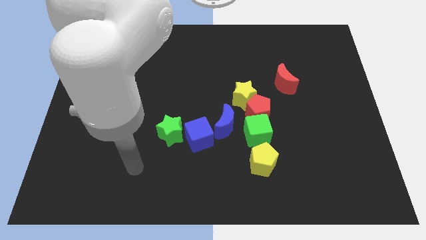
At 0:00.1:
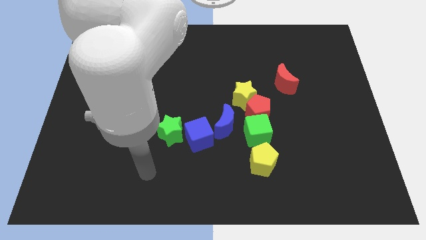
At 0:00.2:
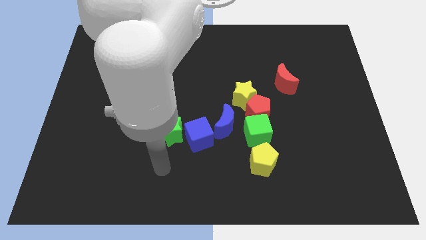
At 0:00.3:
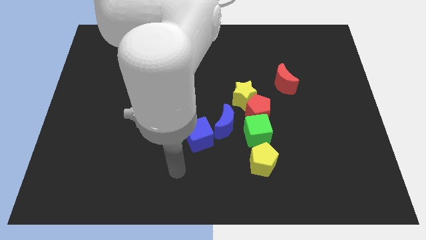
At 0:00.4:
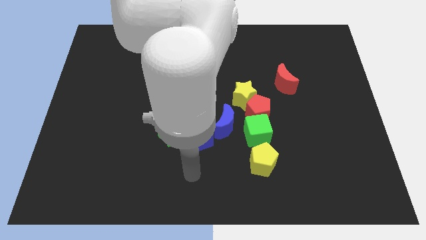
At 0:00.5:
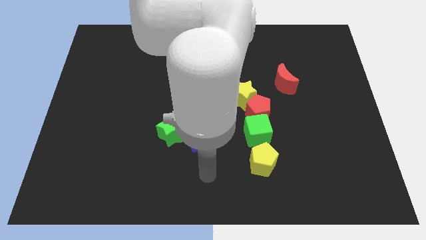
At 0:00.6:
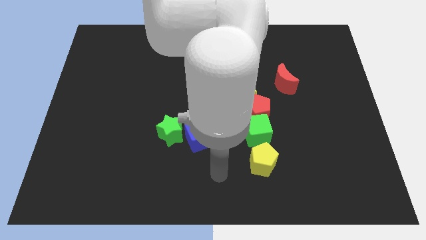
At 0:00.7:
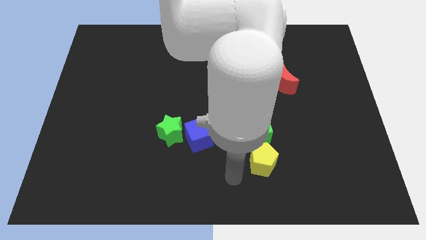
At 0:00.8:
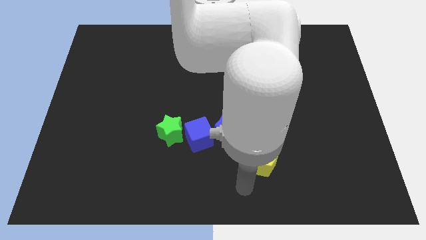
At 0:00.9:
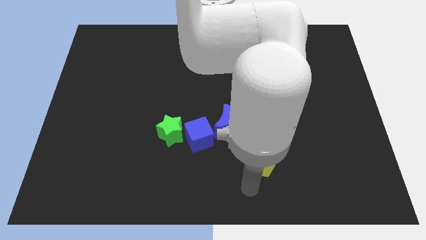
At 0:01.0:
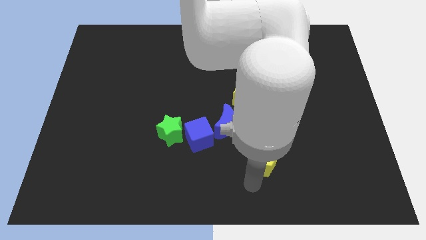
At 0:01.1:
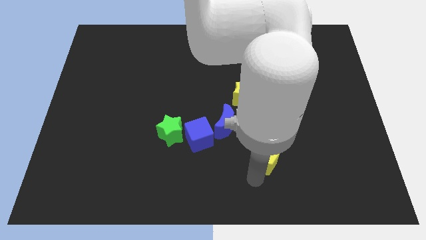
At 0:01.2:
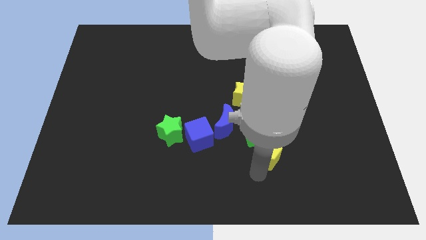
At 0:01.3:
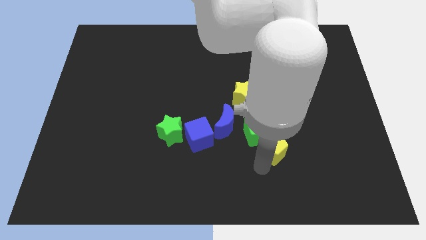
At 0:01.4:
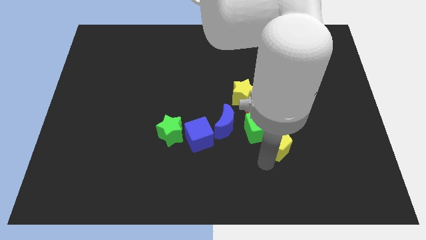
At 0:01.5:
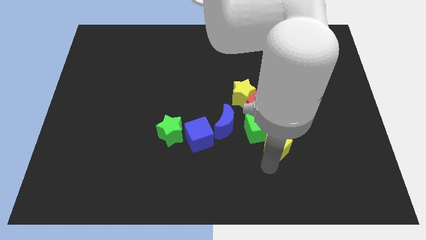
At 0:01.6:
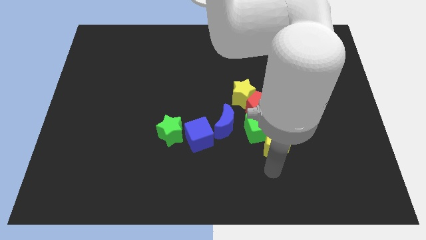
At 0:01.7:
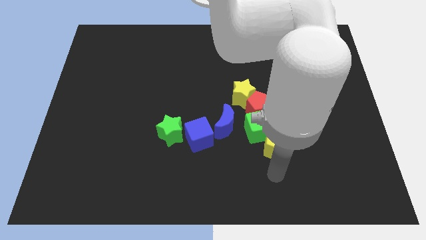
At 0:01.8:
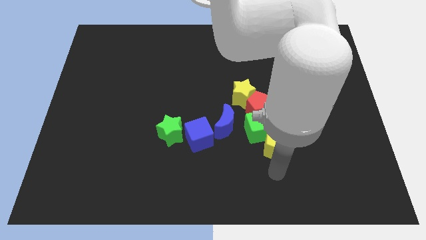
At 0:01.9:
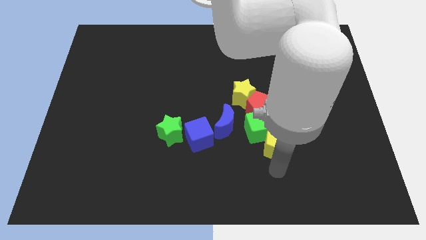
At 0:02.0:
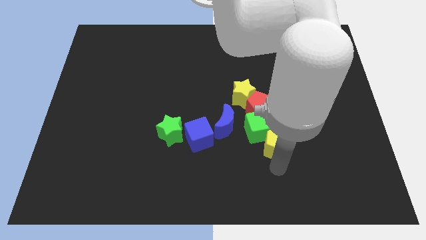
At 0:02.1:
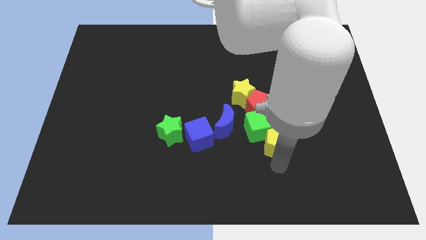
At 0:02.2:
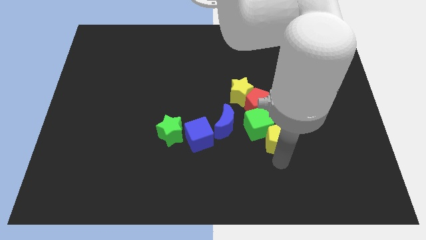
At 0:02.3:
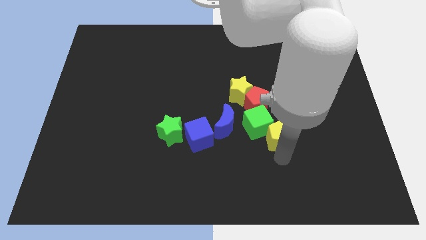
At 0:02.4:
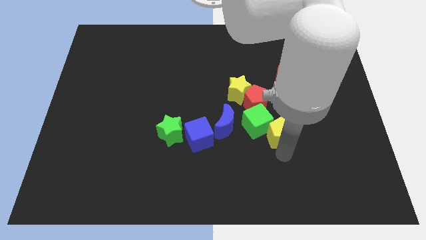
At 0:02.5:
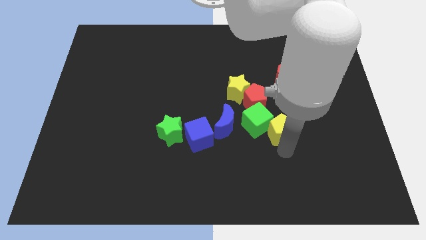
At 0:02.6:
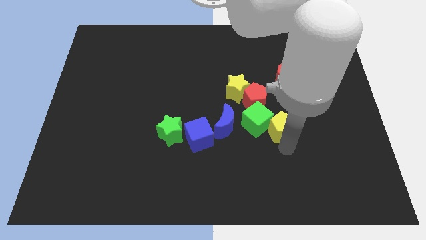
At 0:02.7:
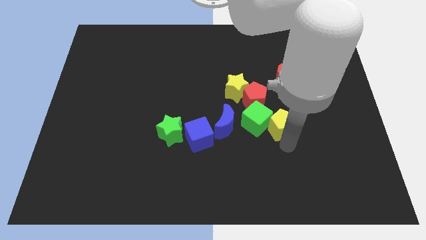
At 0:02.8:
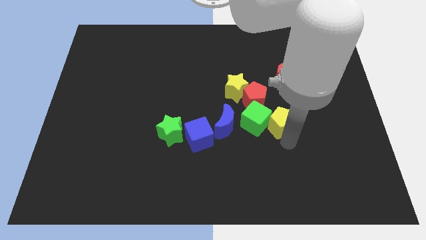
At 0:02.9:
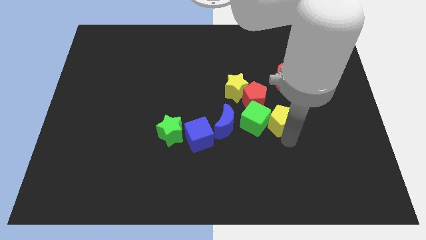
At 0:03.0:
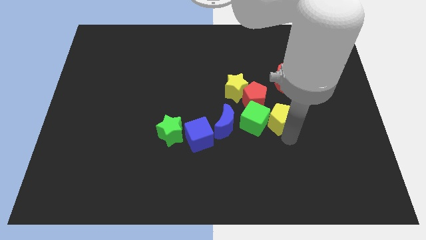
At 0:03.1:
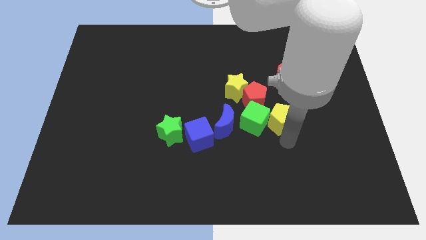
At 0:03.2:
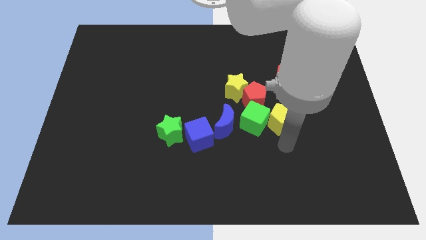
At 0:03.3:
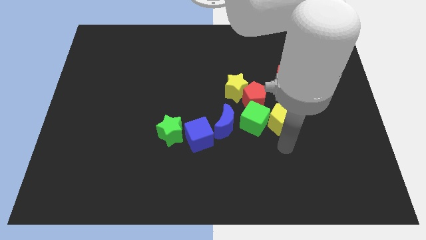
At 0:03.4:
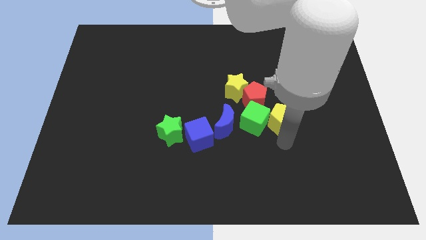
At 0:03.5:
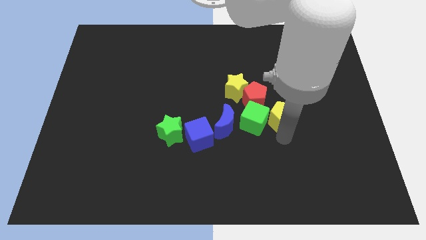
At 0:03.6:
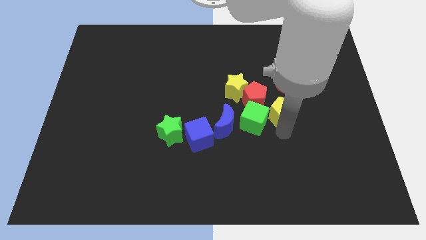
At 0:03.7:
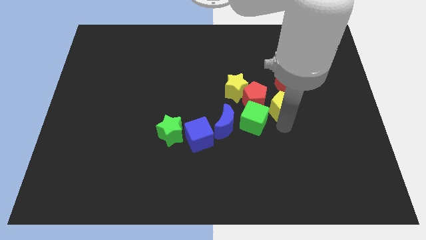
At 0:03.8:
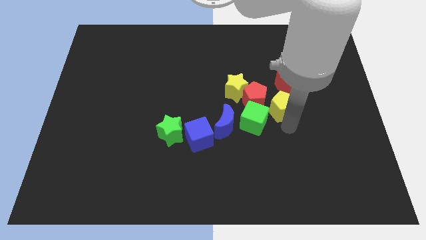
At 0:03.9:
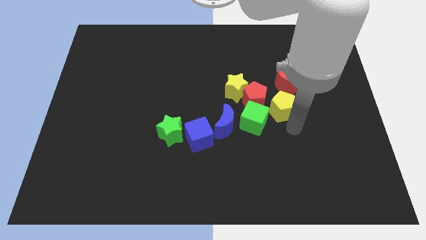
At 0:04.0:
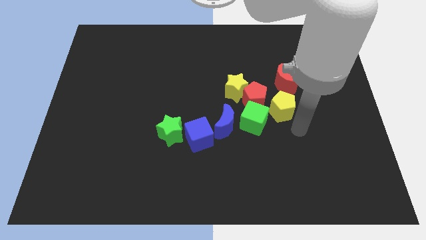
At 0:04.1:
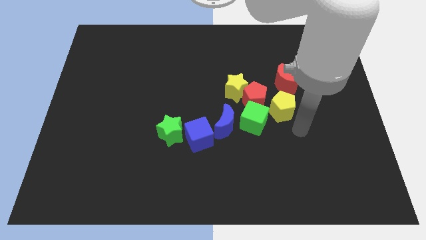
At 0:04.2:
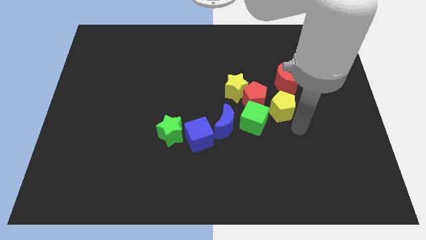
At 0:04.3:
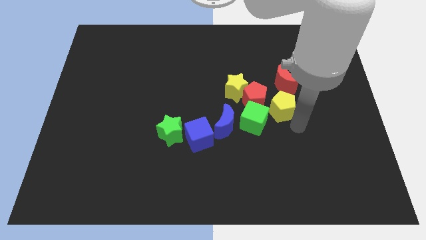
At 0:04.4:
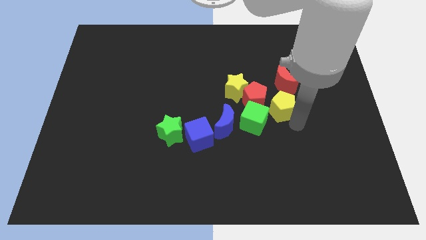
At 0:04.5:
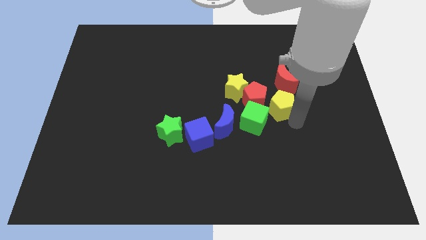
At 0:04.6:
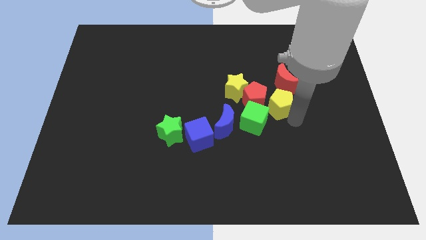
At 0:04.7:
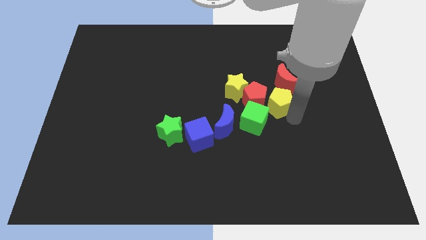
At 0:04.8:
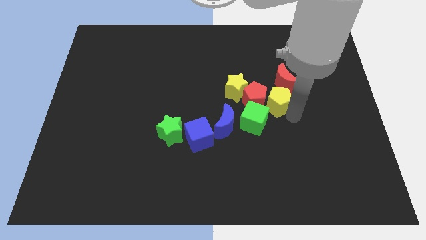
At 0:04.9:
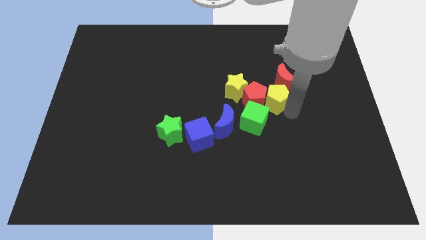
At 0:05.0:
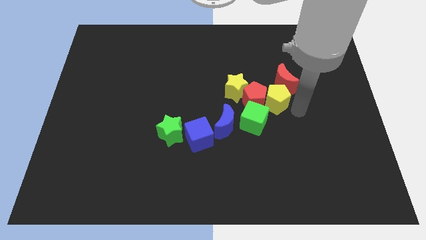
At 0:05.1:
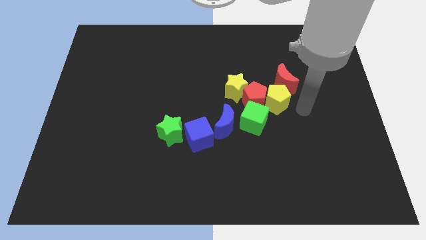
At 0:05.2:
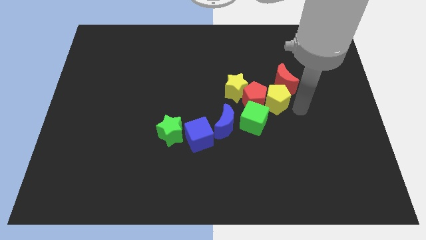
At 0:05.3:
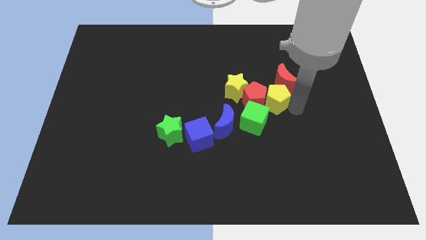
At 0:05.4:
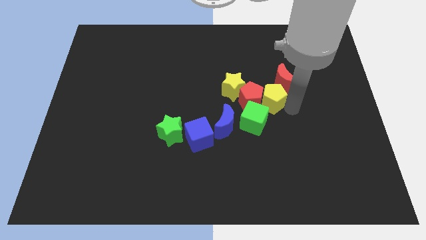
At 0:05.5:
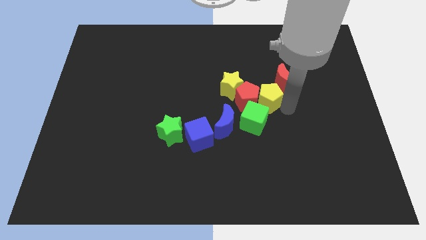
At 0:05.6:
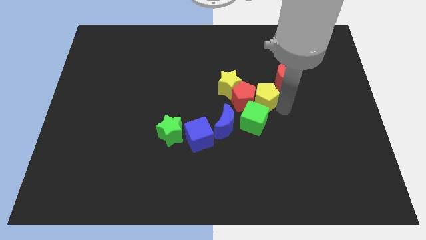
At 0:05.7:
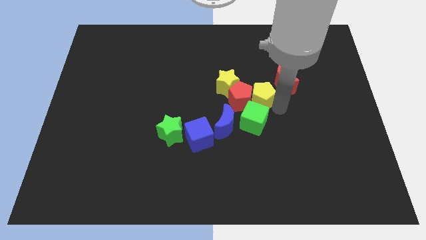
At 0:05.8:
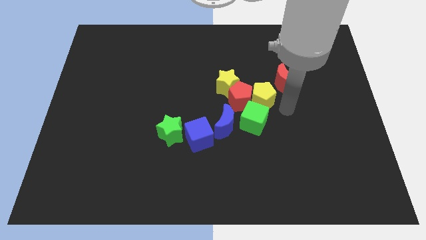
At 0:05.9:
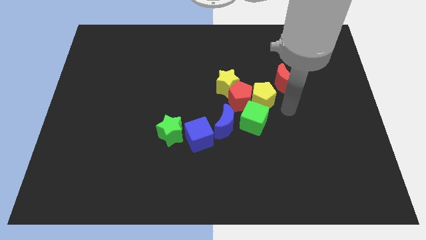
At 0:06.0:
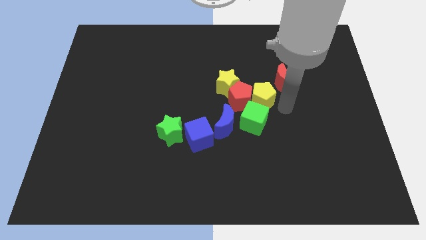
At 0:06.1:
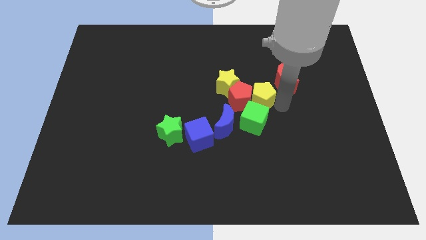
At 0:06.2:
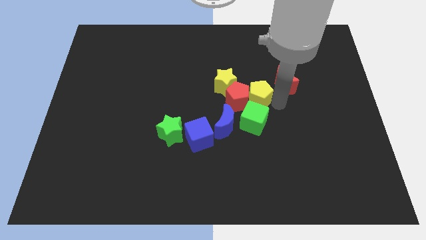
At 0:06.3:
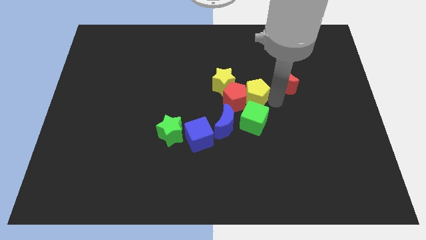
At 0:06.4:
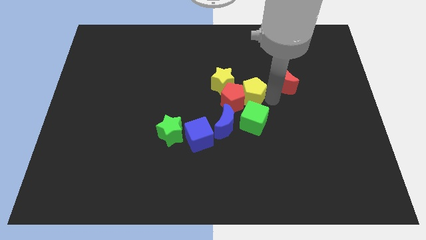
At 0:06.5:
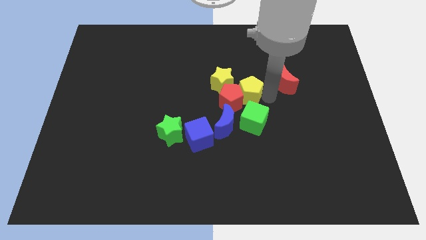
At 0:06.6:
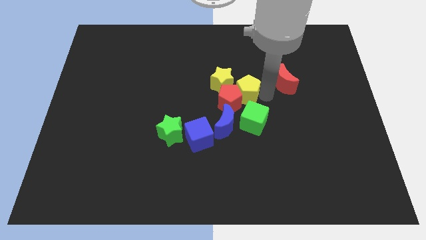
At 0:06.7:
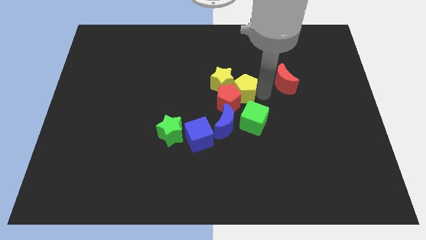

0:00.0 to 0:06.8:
push the yellow pentagon close to the yellow star

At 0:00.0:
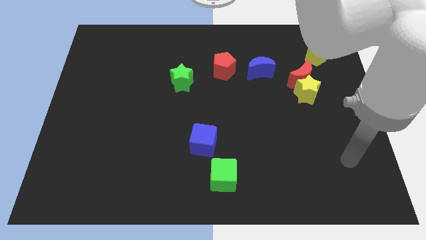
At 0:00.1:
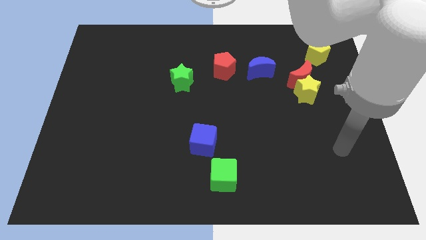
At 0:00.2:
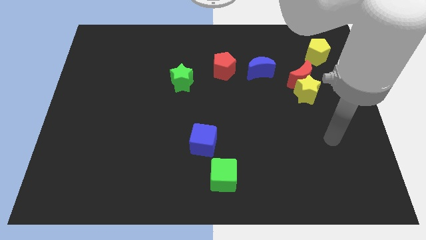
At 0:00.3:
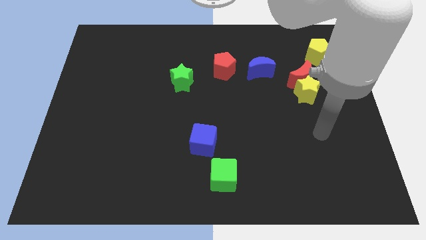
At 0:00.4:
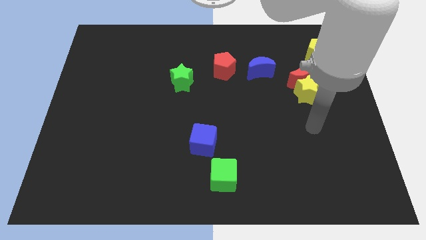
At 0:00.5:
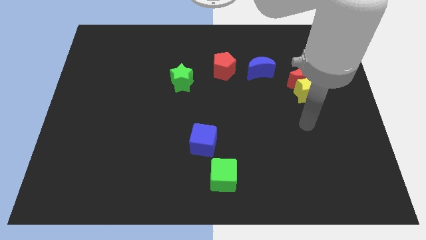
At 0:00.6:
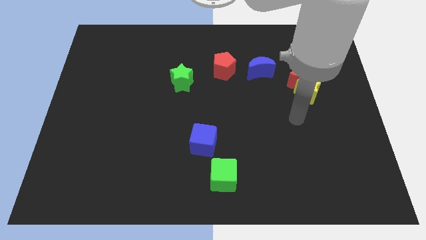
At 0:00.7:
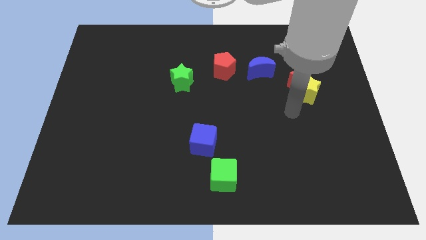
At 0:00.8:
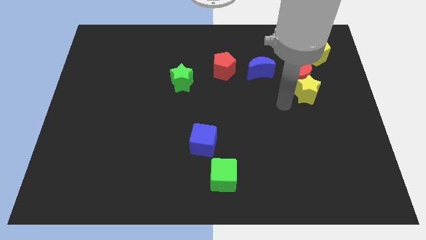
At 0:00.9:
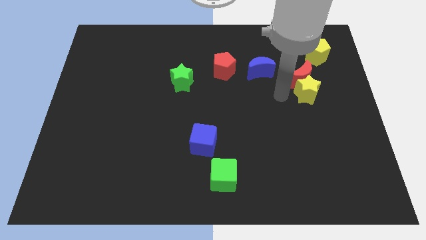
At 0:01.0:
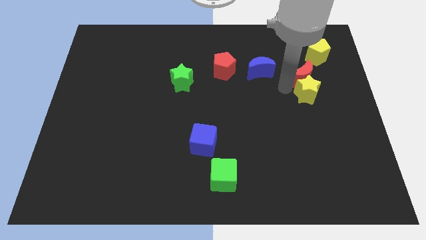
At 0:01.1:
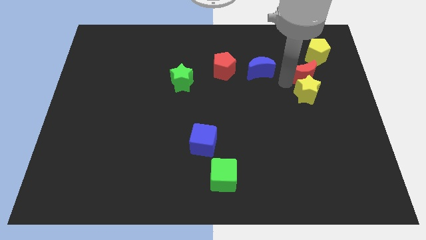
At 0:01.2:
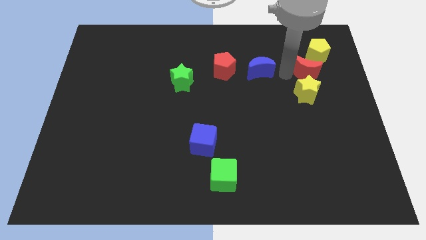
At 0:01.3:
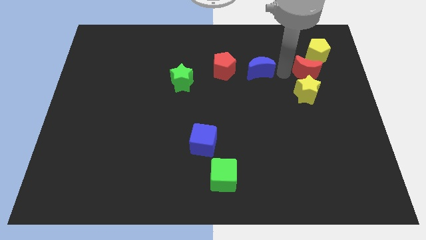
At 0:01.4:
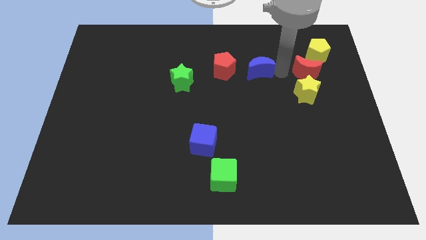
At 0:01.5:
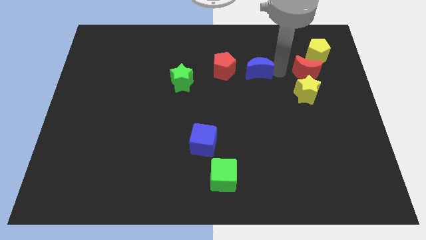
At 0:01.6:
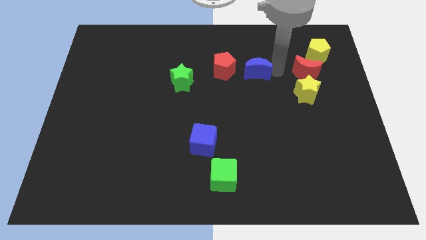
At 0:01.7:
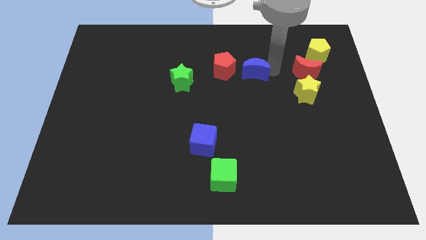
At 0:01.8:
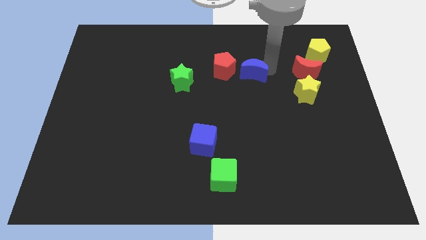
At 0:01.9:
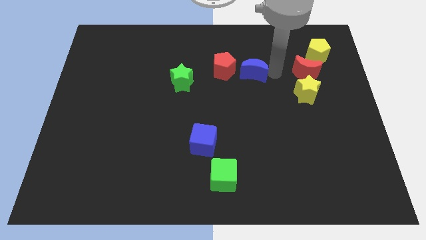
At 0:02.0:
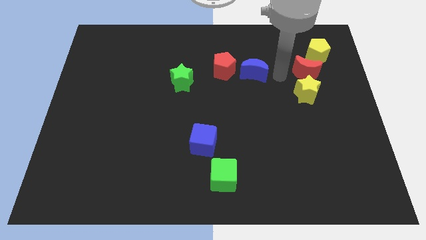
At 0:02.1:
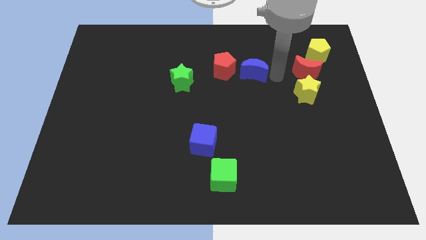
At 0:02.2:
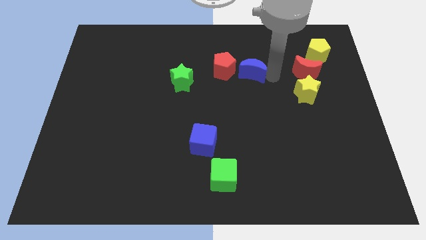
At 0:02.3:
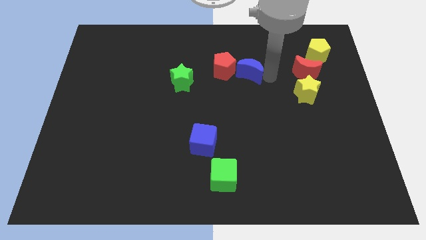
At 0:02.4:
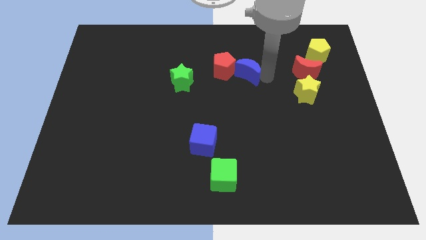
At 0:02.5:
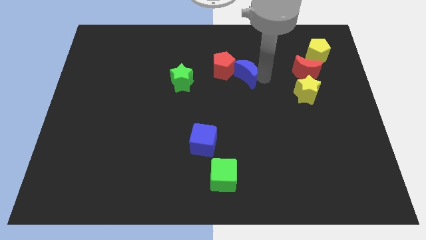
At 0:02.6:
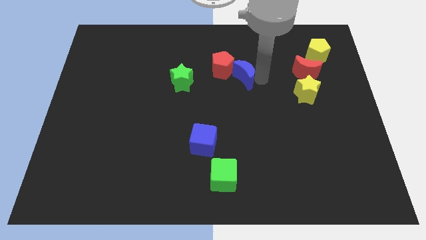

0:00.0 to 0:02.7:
move the blue moon towards the red pentagon
